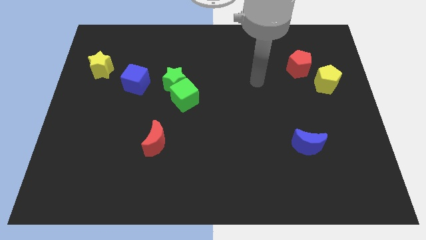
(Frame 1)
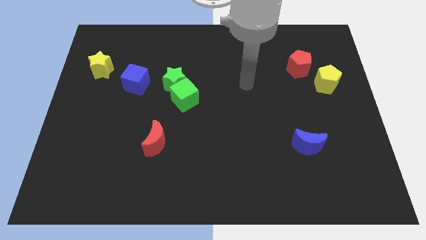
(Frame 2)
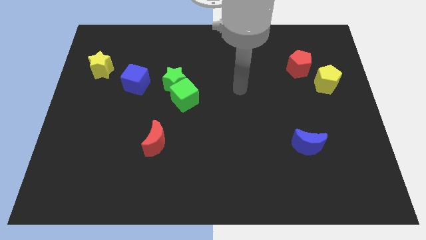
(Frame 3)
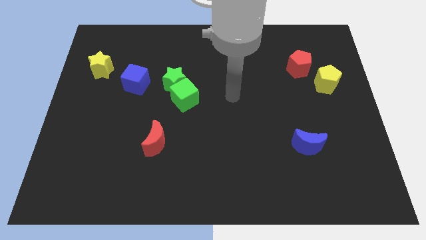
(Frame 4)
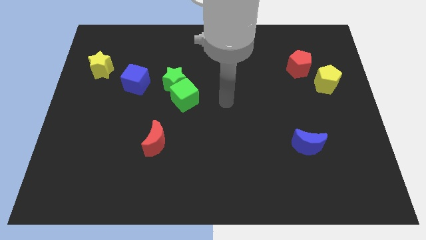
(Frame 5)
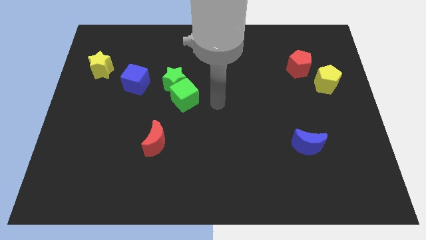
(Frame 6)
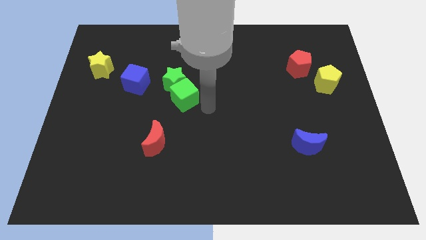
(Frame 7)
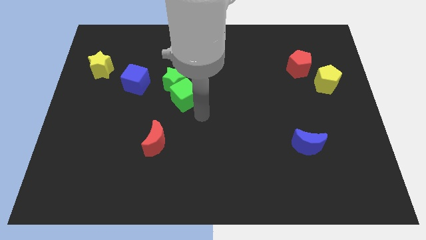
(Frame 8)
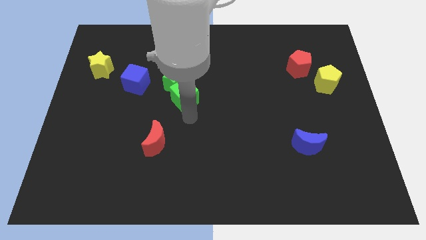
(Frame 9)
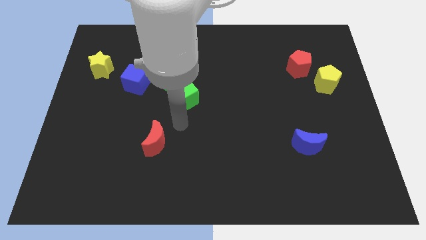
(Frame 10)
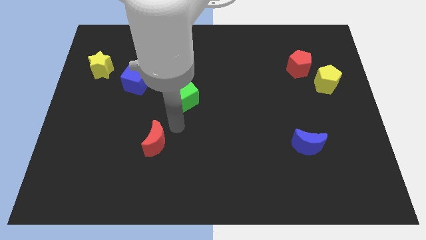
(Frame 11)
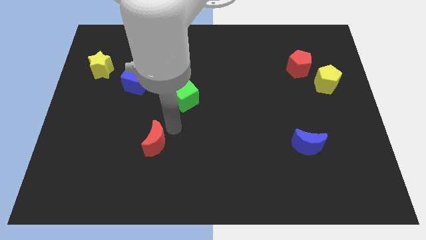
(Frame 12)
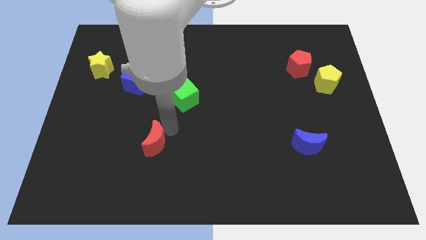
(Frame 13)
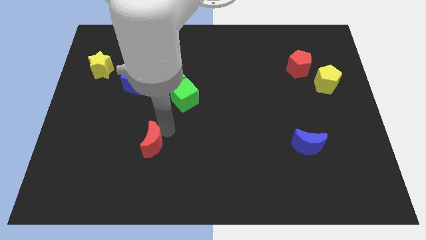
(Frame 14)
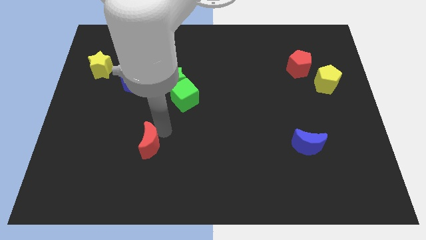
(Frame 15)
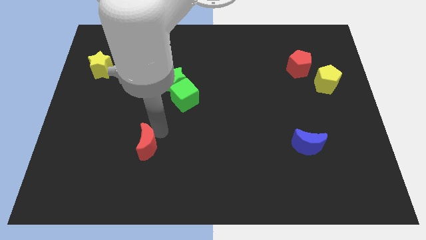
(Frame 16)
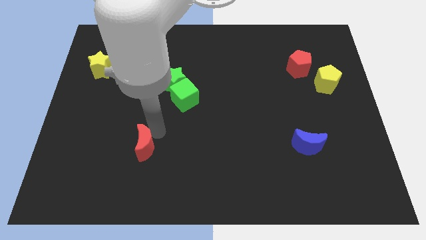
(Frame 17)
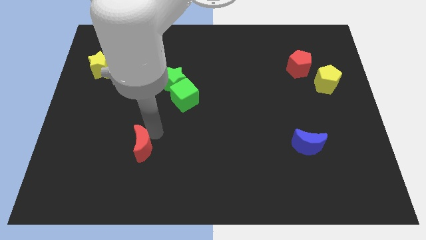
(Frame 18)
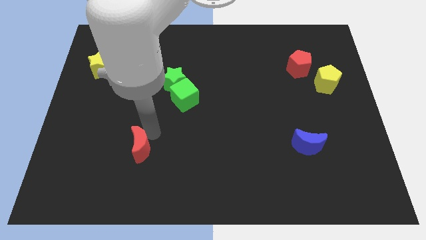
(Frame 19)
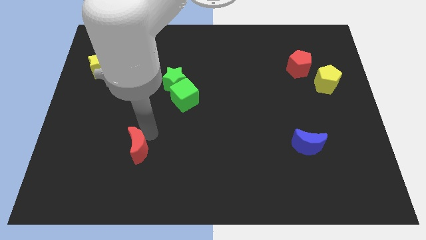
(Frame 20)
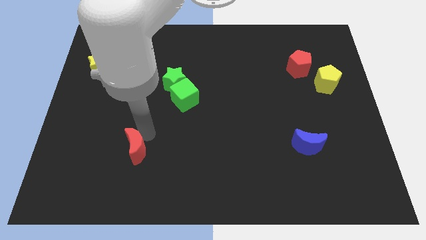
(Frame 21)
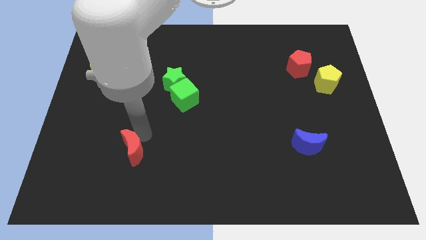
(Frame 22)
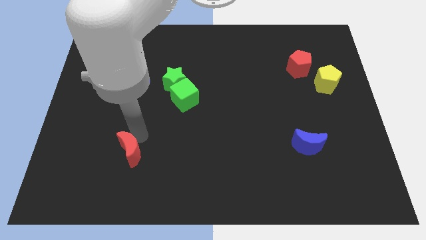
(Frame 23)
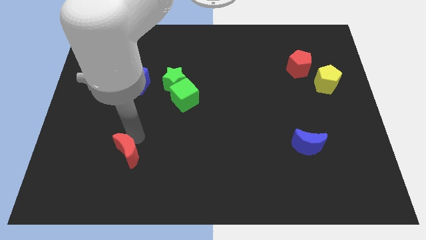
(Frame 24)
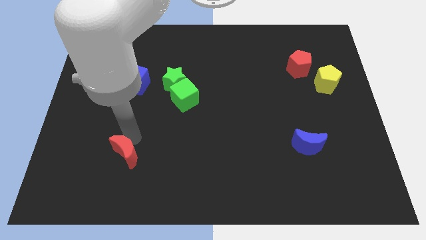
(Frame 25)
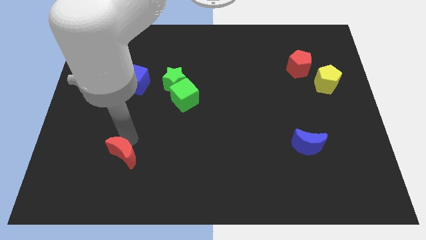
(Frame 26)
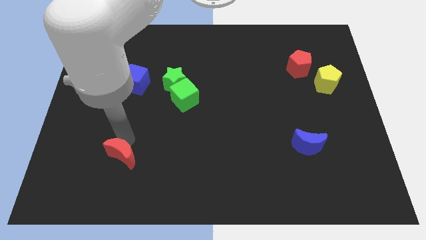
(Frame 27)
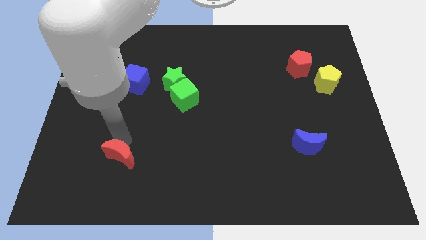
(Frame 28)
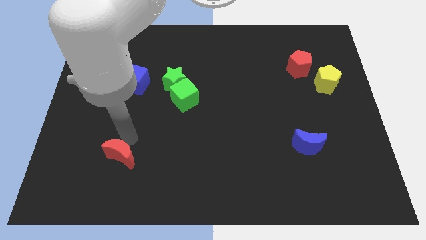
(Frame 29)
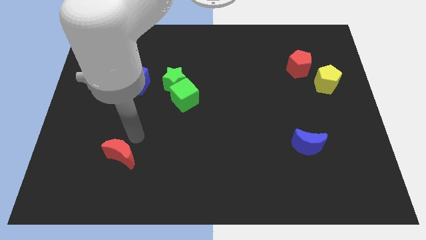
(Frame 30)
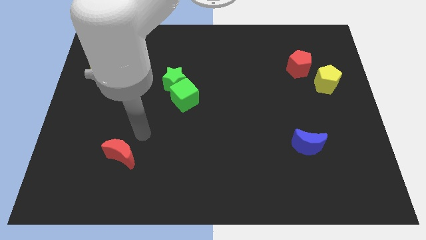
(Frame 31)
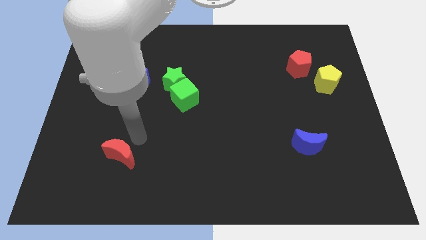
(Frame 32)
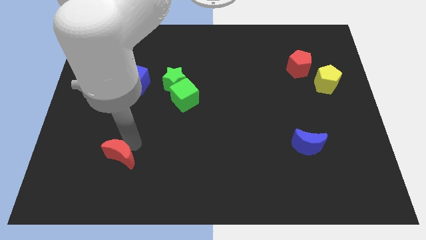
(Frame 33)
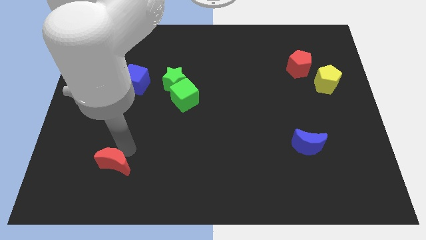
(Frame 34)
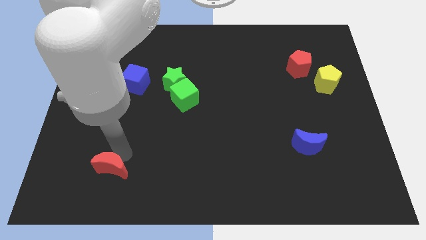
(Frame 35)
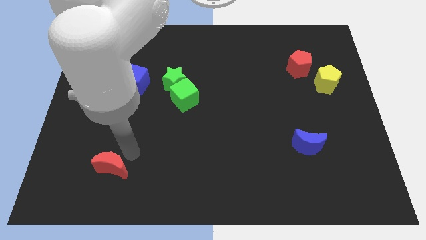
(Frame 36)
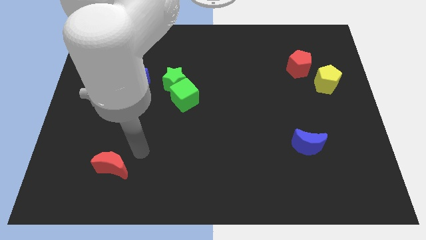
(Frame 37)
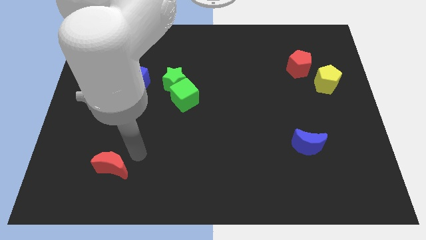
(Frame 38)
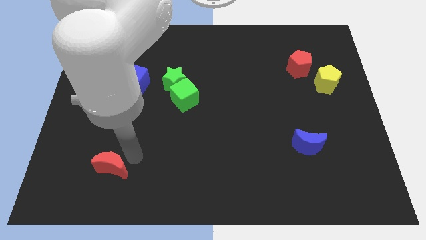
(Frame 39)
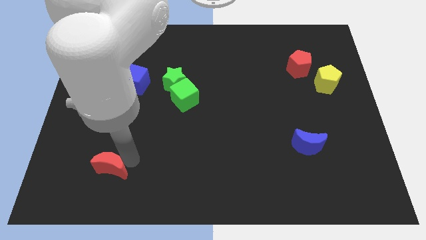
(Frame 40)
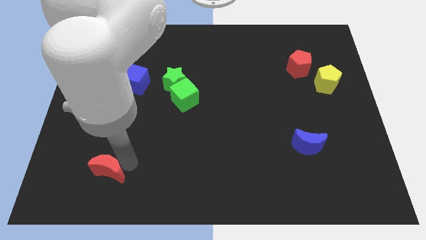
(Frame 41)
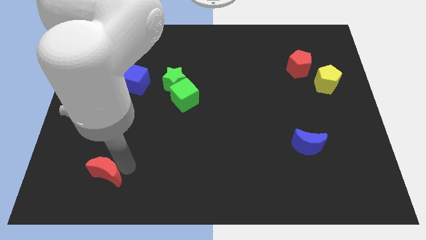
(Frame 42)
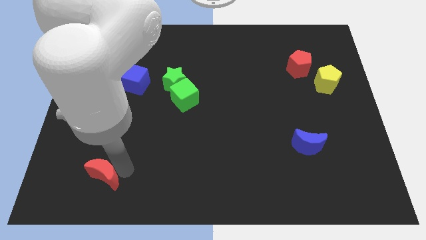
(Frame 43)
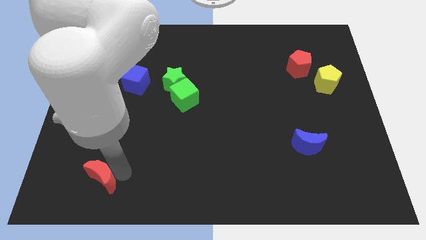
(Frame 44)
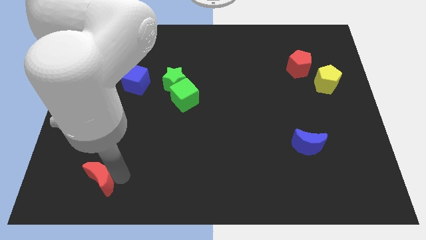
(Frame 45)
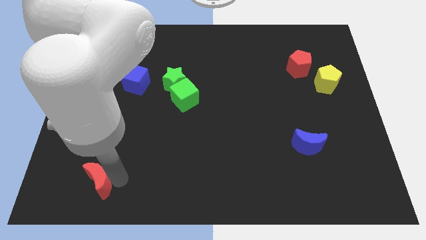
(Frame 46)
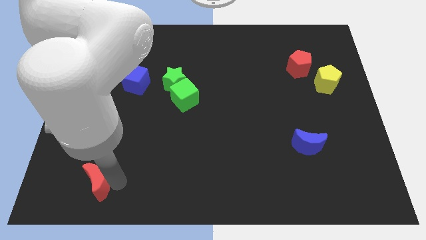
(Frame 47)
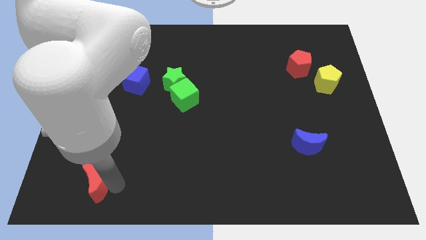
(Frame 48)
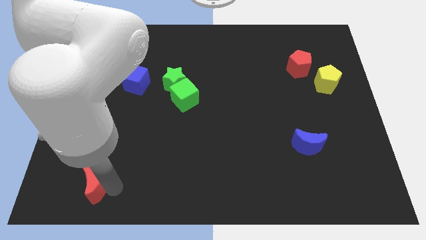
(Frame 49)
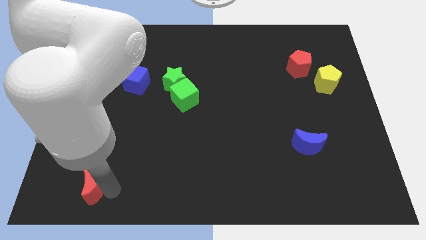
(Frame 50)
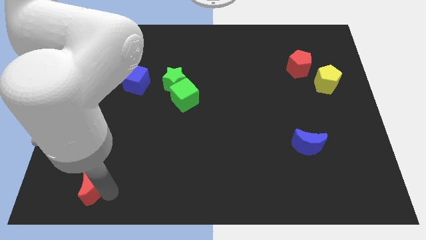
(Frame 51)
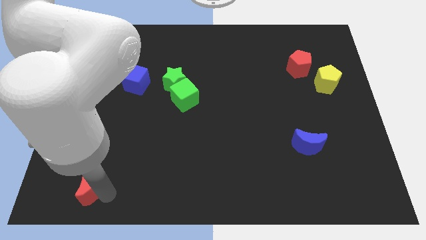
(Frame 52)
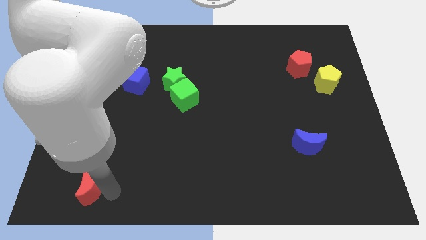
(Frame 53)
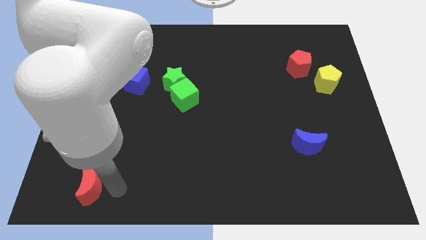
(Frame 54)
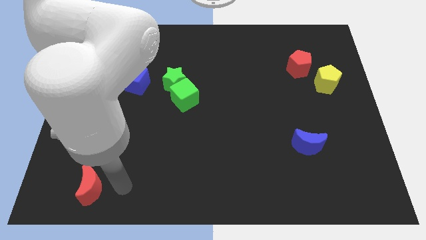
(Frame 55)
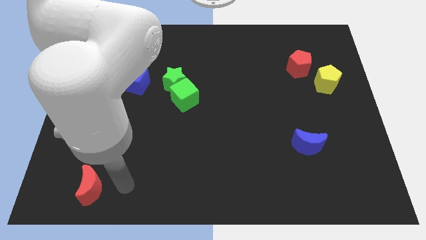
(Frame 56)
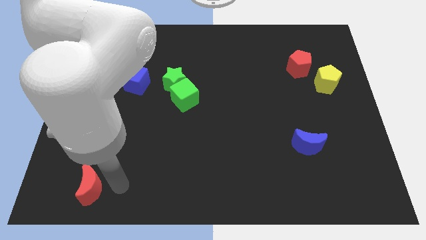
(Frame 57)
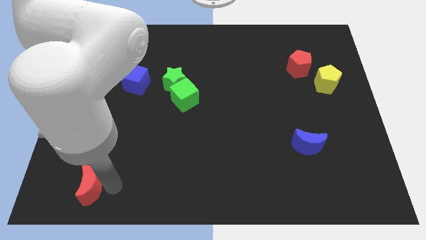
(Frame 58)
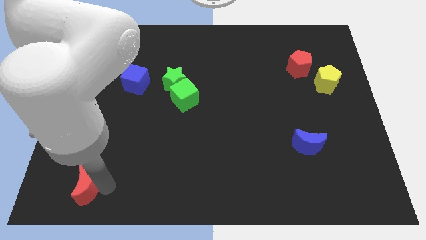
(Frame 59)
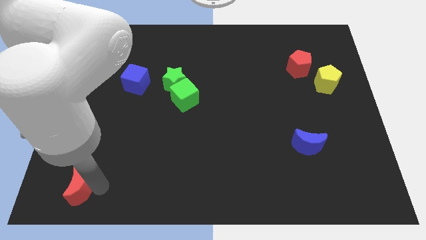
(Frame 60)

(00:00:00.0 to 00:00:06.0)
push the red moon to the bottom left

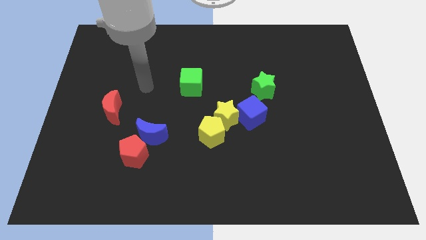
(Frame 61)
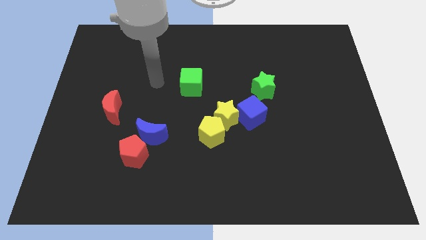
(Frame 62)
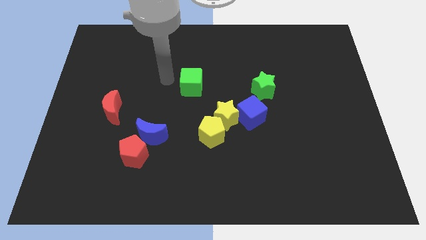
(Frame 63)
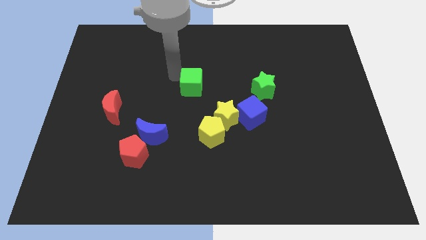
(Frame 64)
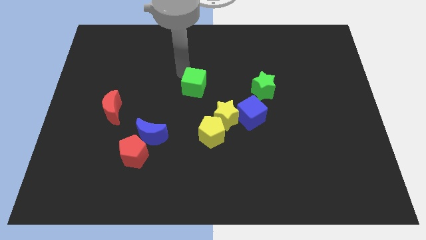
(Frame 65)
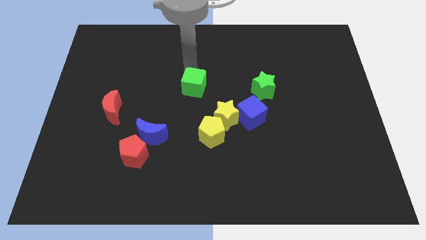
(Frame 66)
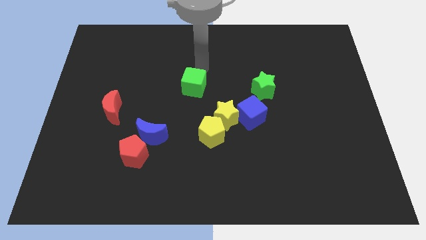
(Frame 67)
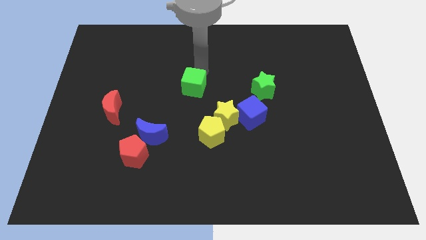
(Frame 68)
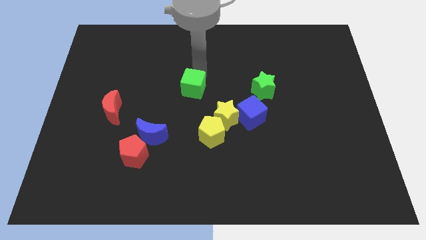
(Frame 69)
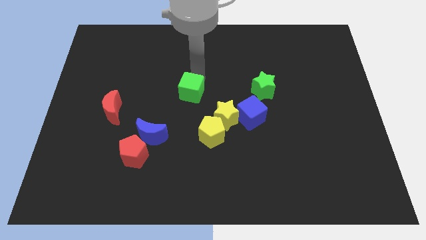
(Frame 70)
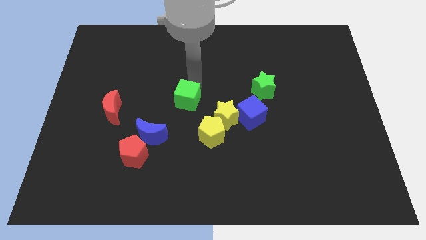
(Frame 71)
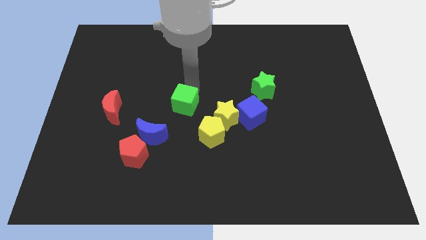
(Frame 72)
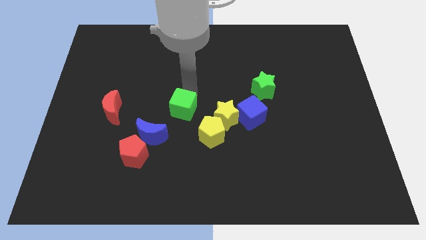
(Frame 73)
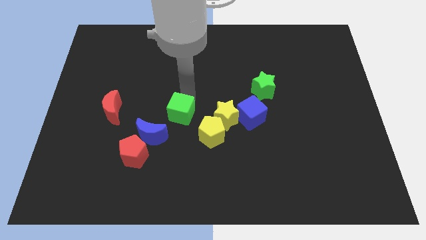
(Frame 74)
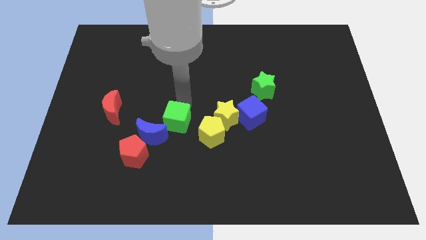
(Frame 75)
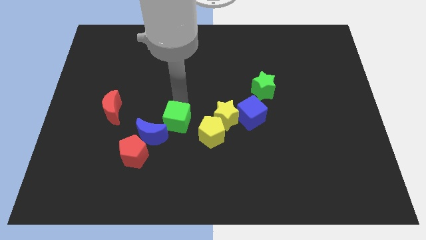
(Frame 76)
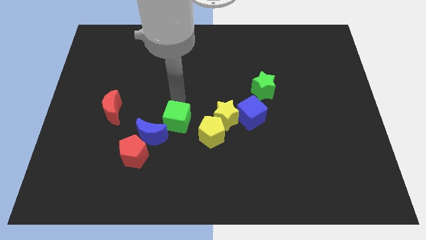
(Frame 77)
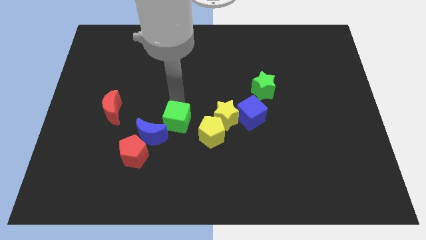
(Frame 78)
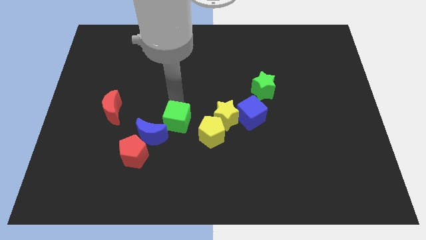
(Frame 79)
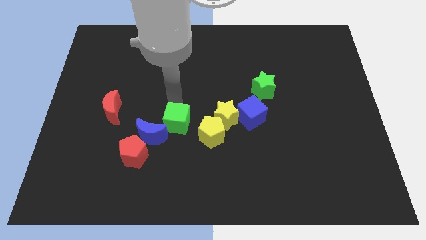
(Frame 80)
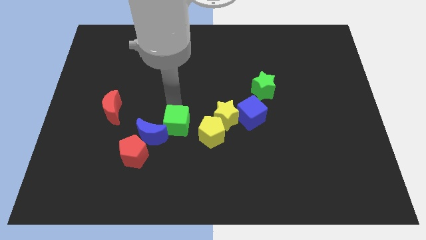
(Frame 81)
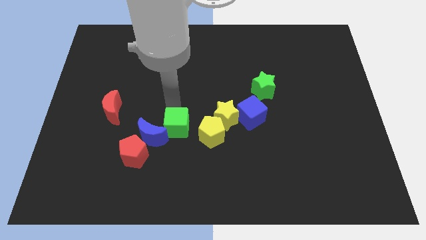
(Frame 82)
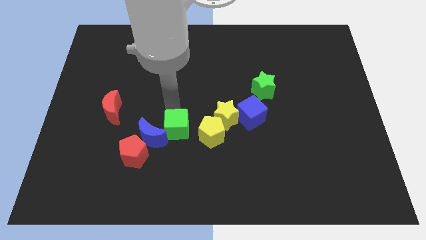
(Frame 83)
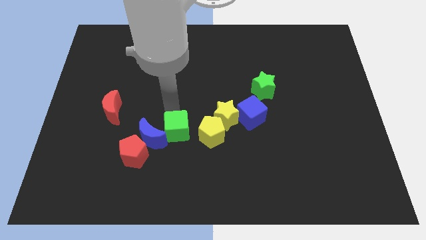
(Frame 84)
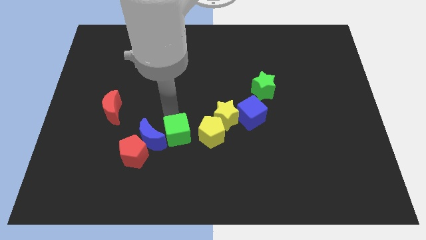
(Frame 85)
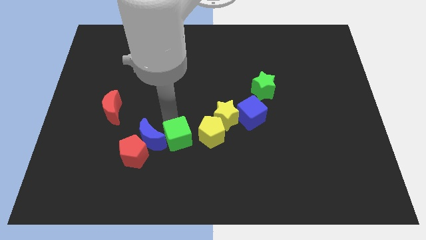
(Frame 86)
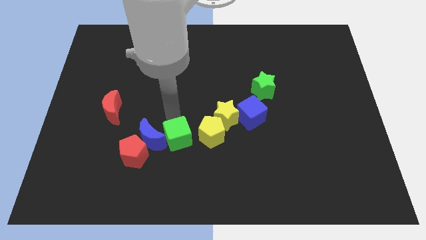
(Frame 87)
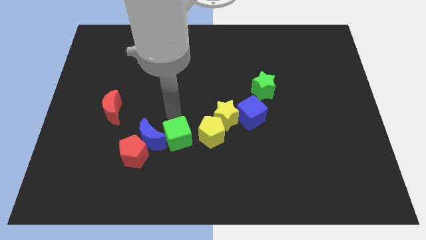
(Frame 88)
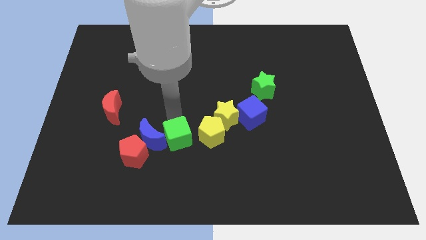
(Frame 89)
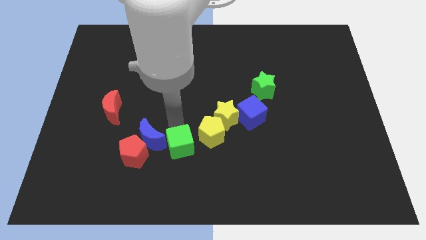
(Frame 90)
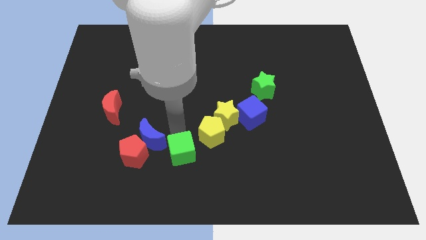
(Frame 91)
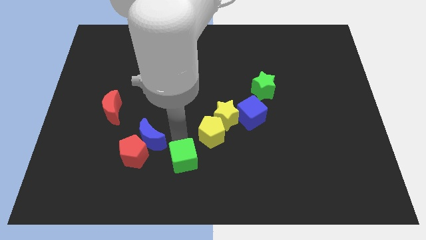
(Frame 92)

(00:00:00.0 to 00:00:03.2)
put the green cube to the bottom
